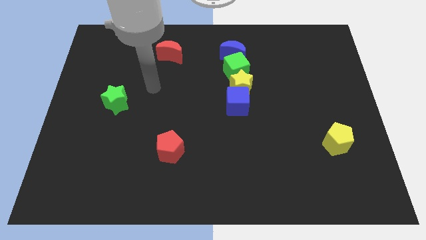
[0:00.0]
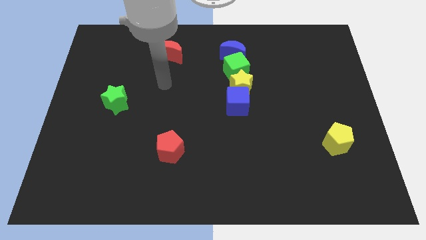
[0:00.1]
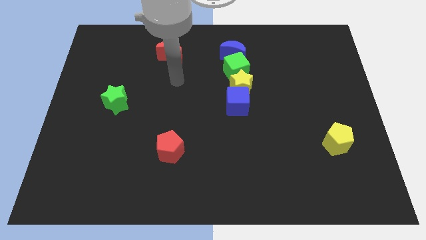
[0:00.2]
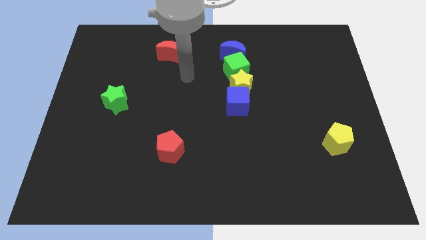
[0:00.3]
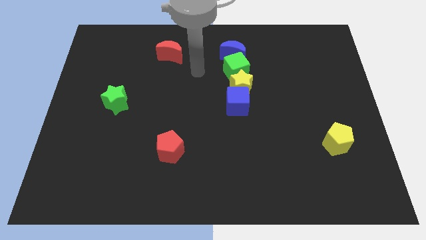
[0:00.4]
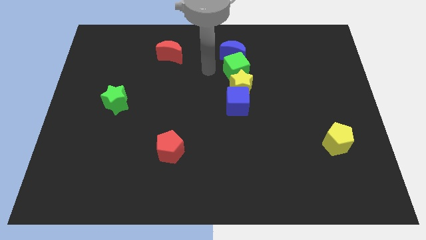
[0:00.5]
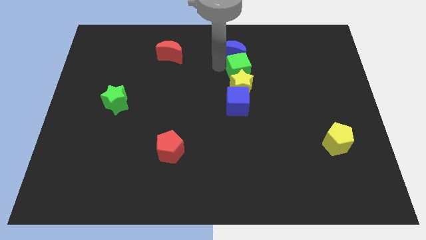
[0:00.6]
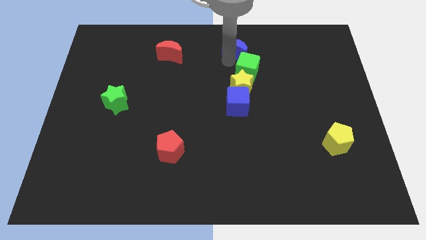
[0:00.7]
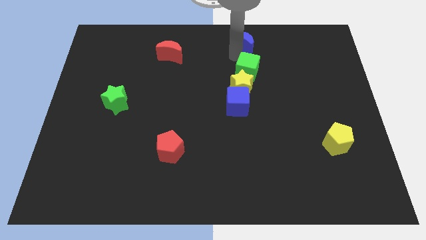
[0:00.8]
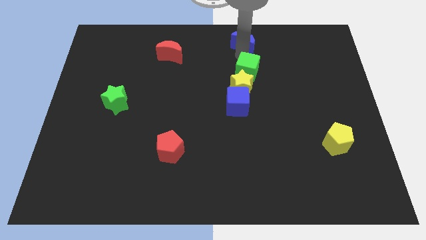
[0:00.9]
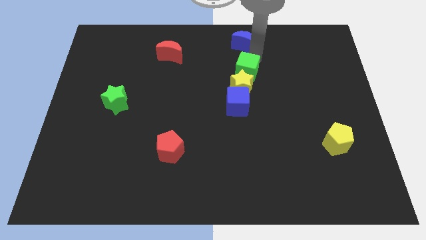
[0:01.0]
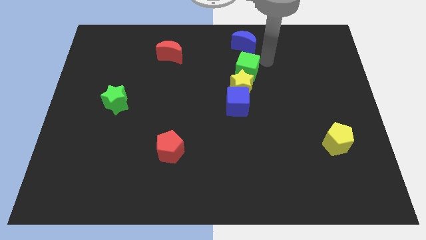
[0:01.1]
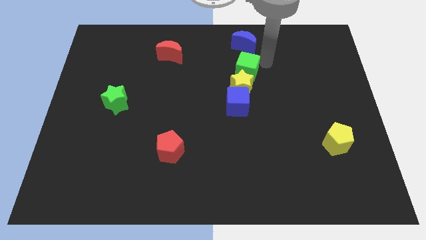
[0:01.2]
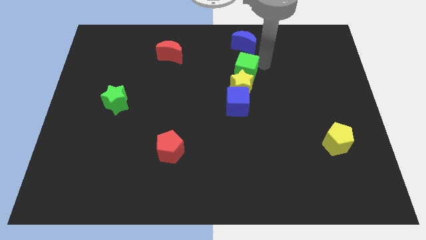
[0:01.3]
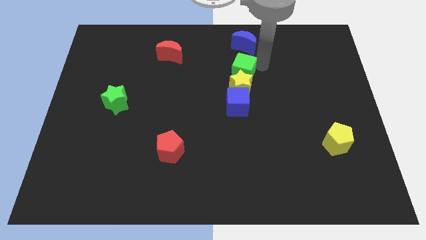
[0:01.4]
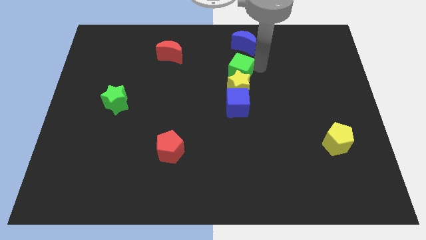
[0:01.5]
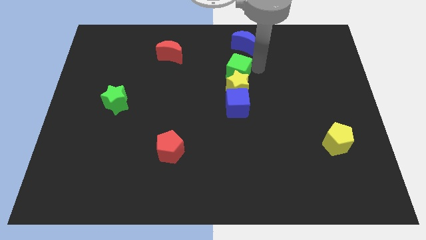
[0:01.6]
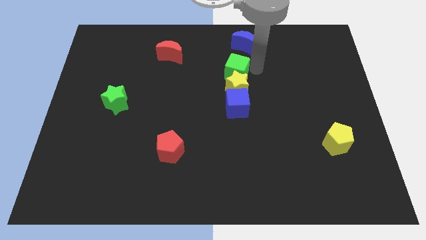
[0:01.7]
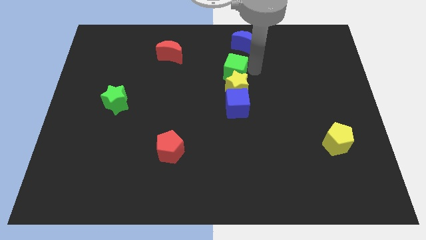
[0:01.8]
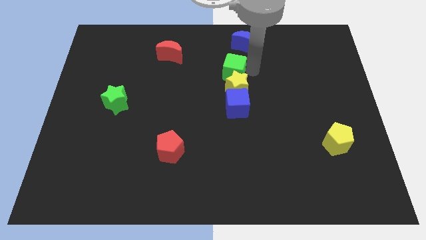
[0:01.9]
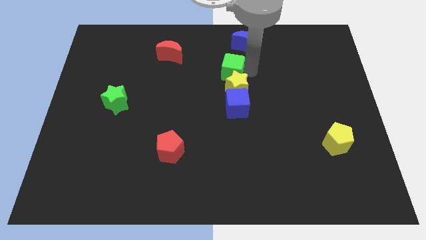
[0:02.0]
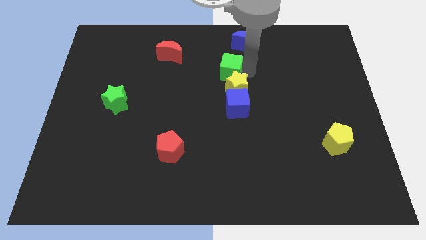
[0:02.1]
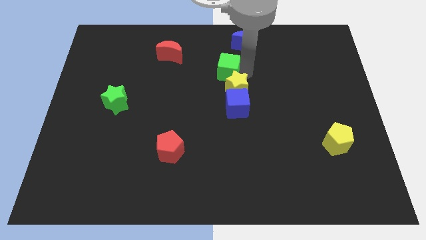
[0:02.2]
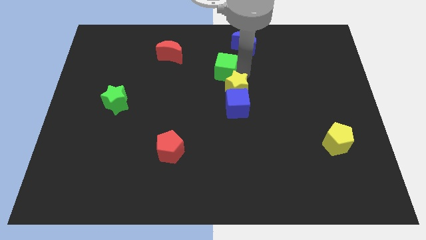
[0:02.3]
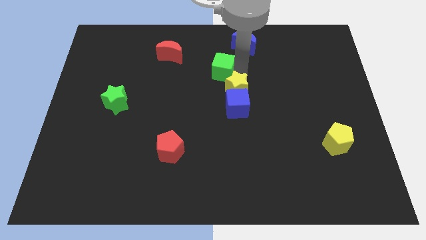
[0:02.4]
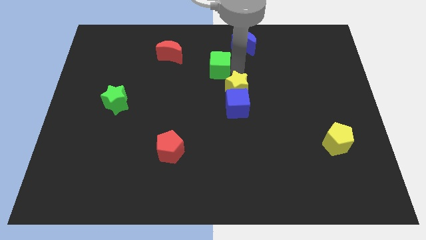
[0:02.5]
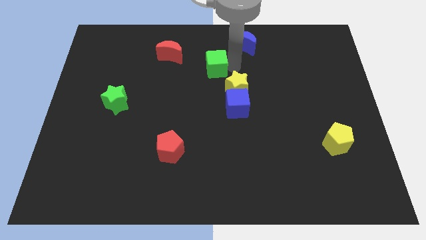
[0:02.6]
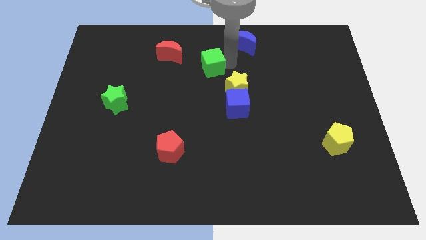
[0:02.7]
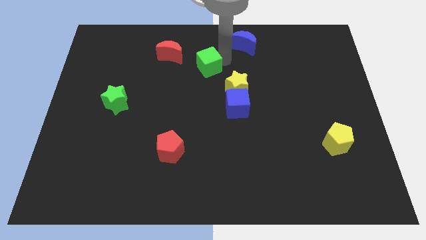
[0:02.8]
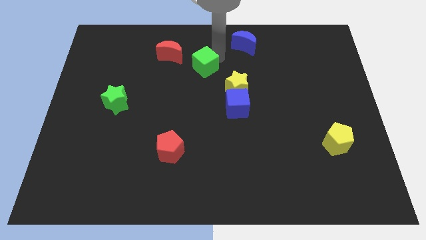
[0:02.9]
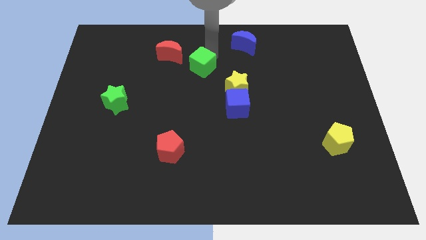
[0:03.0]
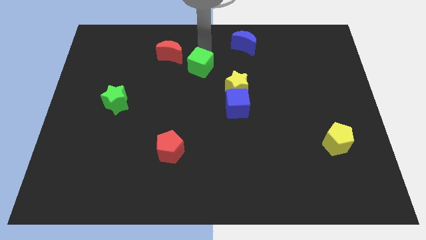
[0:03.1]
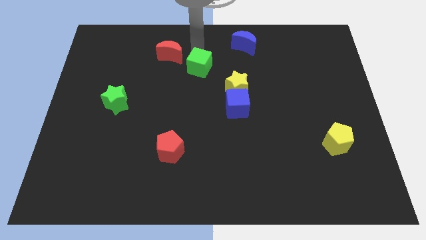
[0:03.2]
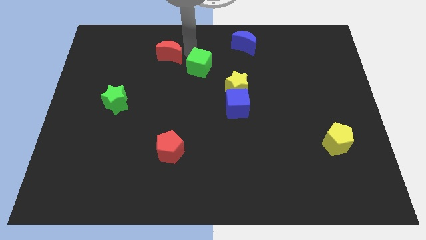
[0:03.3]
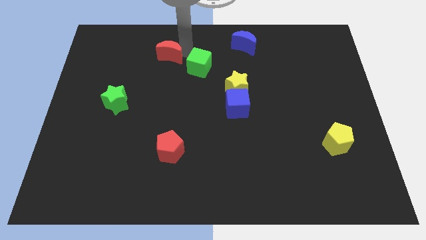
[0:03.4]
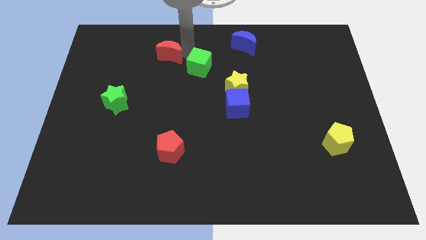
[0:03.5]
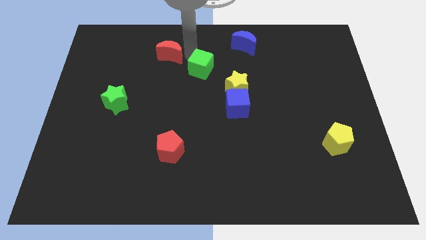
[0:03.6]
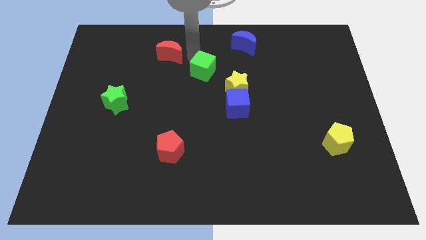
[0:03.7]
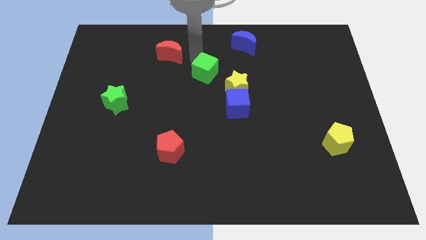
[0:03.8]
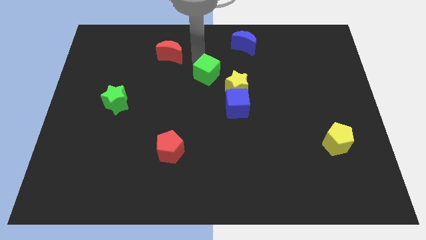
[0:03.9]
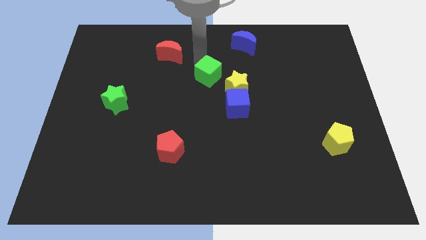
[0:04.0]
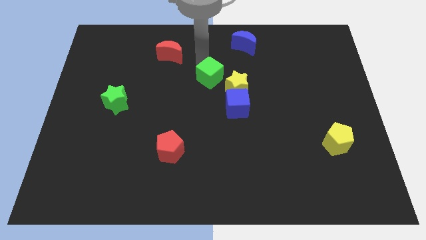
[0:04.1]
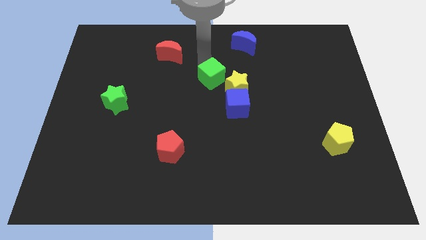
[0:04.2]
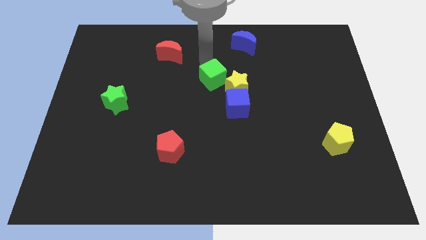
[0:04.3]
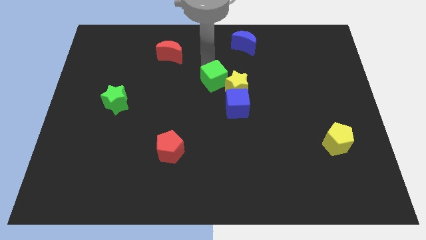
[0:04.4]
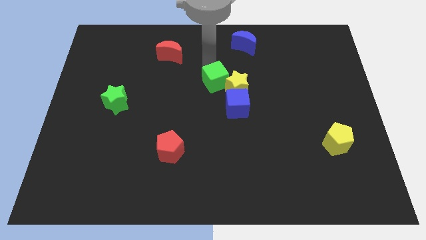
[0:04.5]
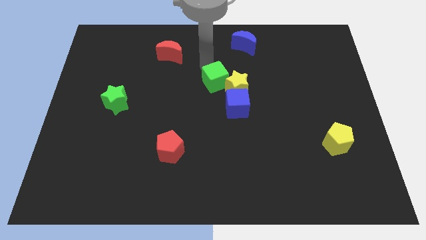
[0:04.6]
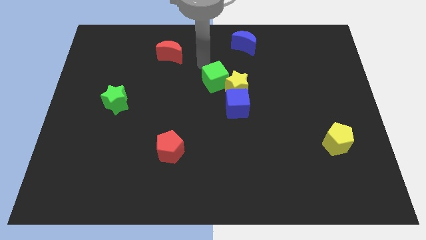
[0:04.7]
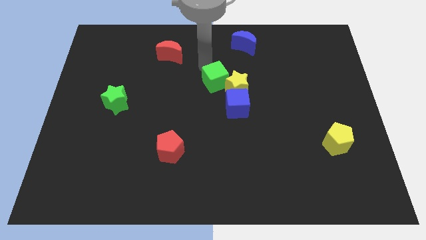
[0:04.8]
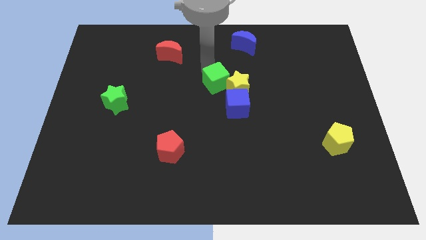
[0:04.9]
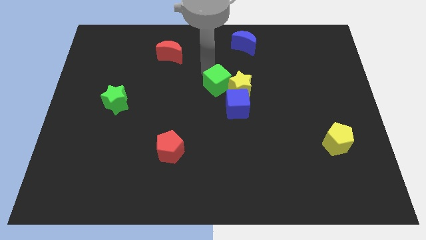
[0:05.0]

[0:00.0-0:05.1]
push the green cube a little bit down and to the left diagonally

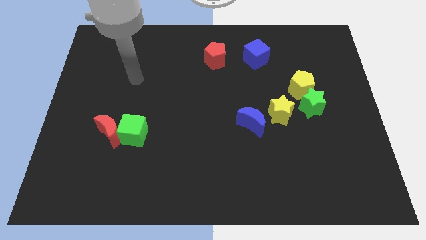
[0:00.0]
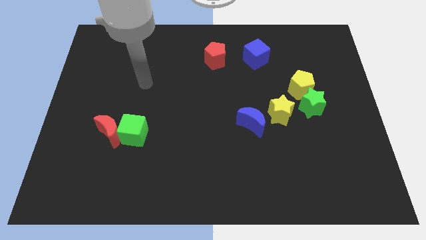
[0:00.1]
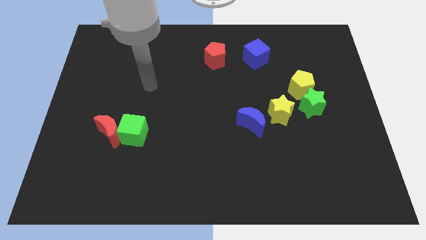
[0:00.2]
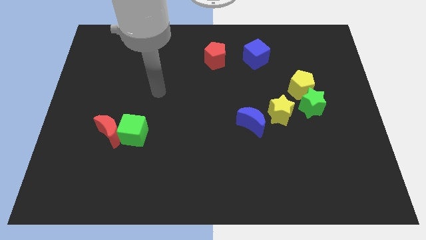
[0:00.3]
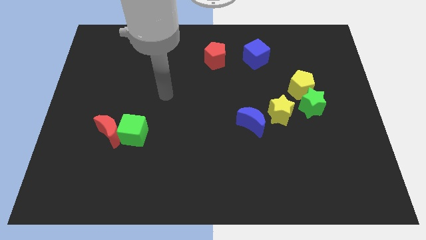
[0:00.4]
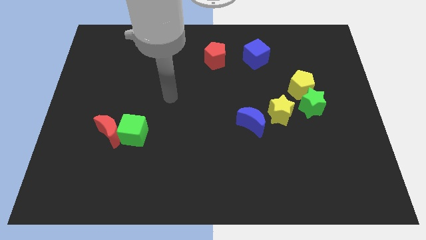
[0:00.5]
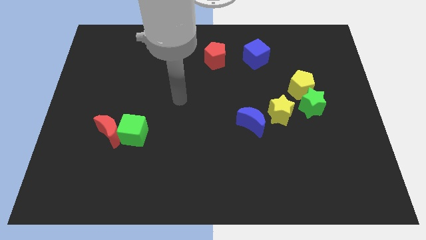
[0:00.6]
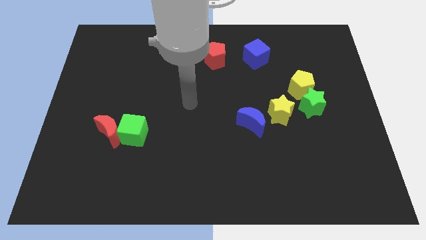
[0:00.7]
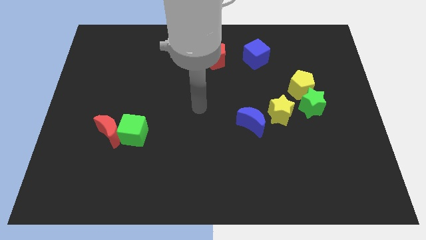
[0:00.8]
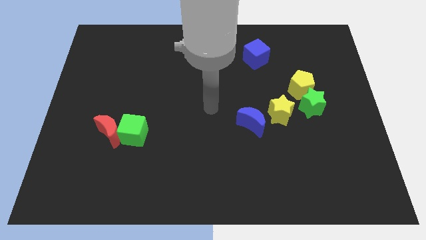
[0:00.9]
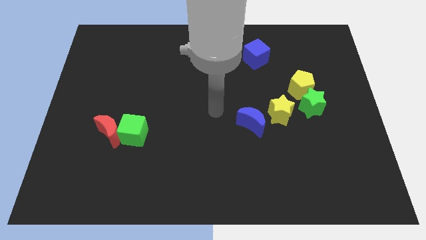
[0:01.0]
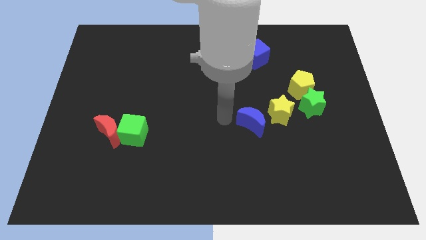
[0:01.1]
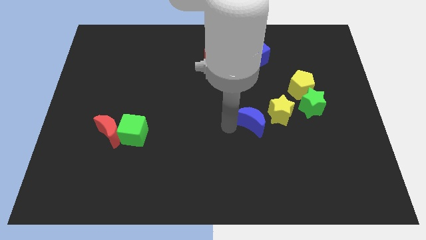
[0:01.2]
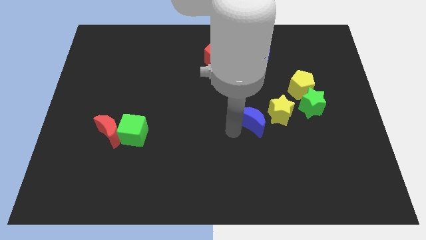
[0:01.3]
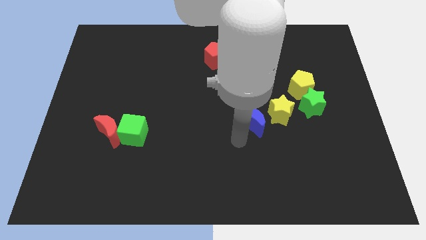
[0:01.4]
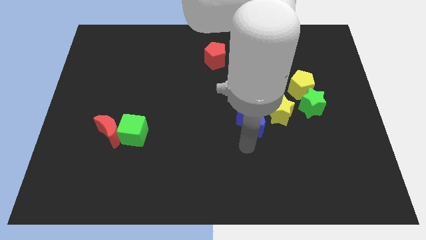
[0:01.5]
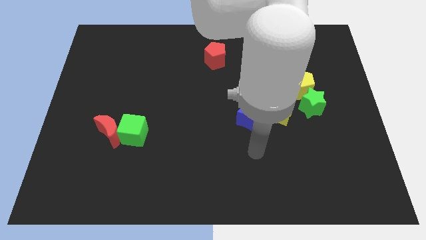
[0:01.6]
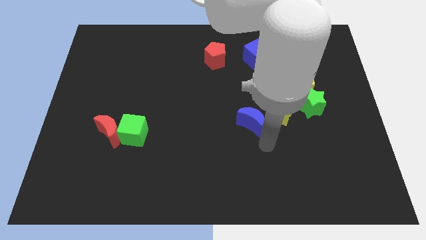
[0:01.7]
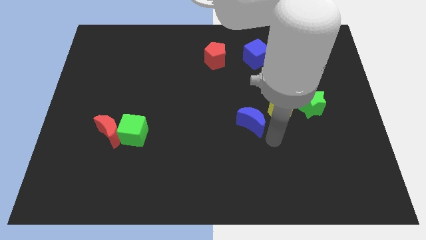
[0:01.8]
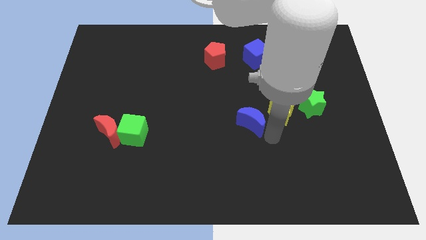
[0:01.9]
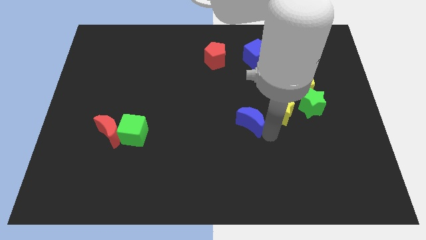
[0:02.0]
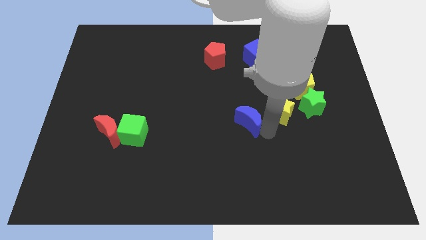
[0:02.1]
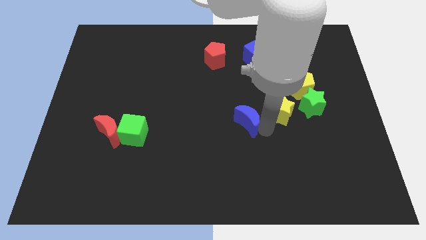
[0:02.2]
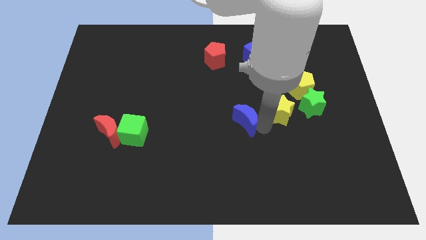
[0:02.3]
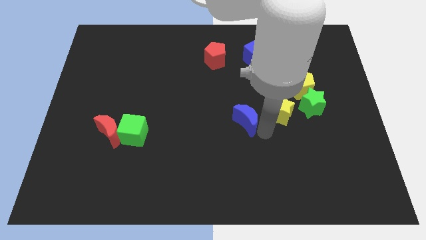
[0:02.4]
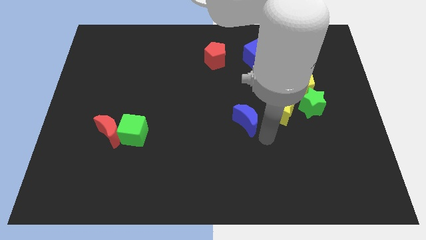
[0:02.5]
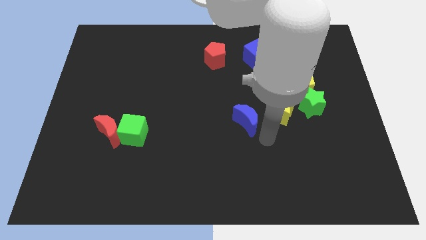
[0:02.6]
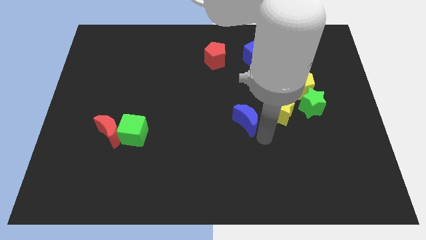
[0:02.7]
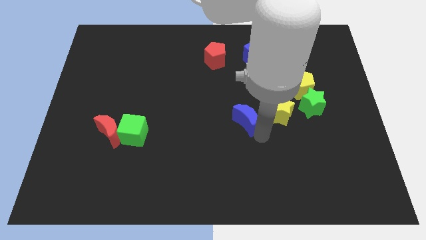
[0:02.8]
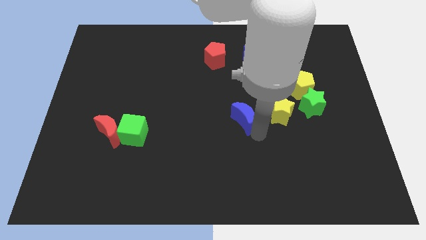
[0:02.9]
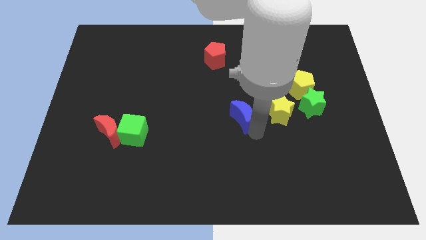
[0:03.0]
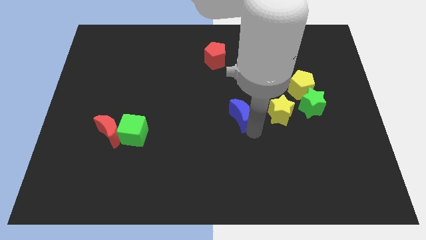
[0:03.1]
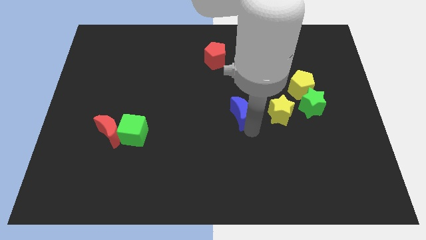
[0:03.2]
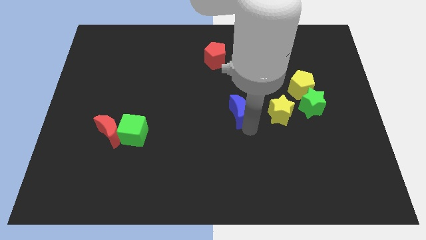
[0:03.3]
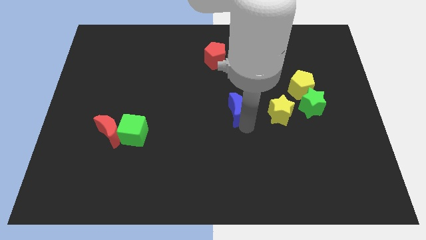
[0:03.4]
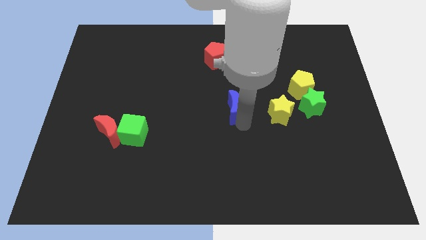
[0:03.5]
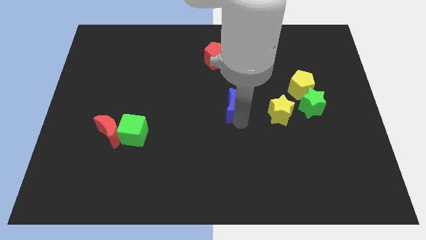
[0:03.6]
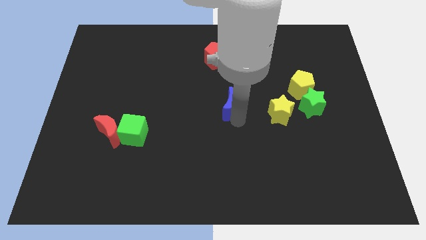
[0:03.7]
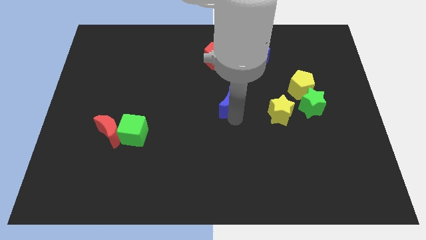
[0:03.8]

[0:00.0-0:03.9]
push the blue moon up and to the left a little bit
